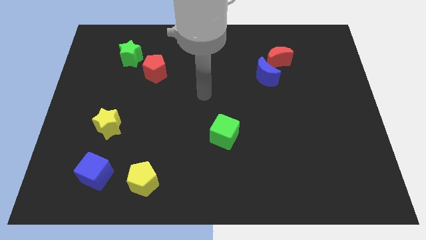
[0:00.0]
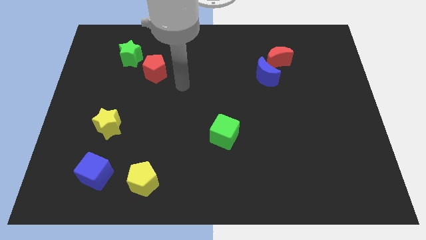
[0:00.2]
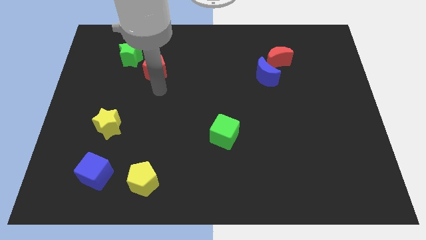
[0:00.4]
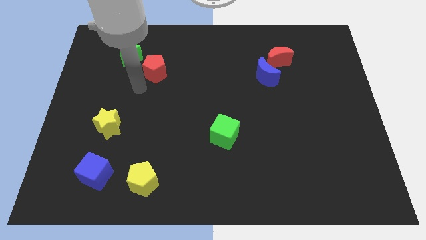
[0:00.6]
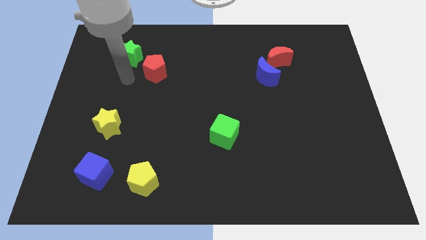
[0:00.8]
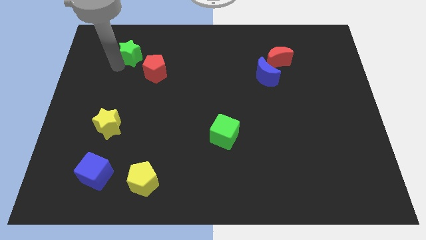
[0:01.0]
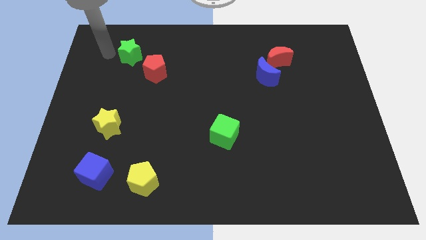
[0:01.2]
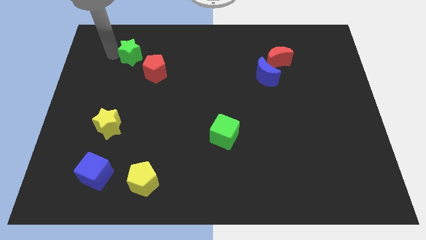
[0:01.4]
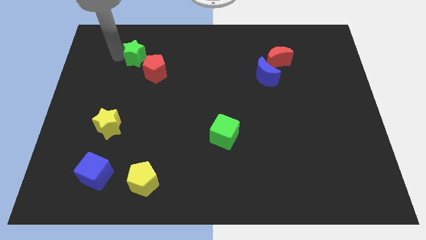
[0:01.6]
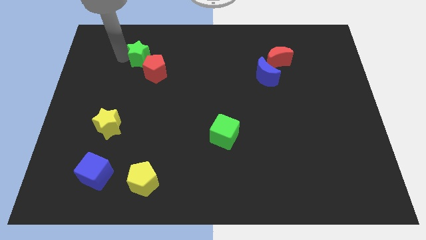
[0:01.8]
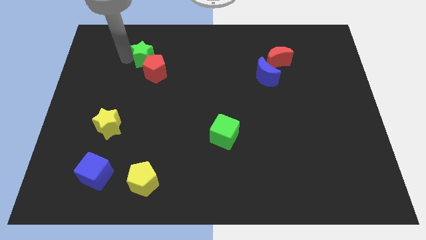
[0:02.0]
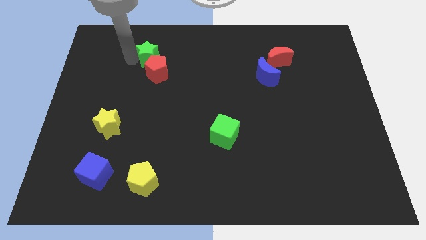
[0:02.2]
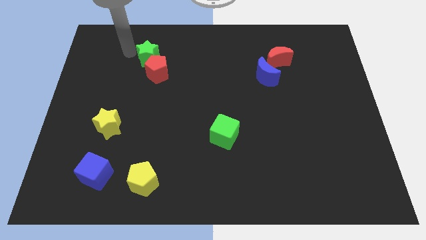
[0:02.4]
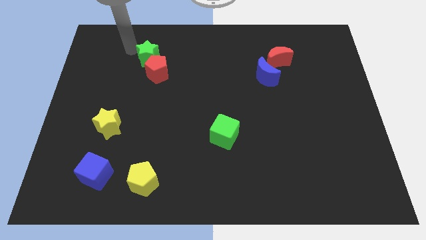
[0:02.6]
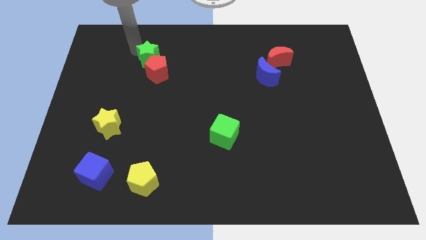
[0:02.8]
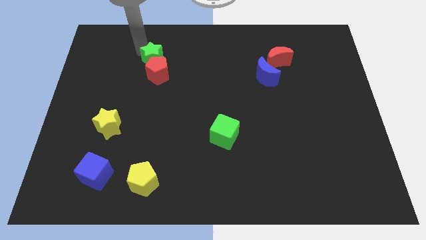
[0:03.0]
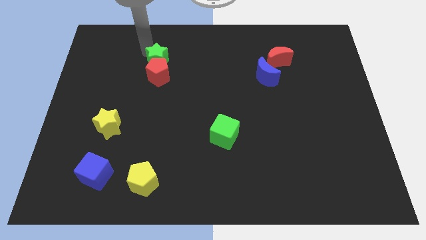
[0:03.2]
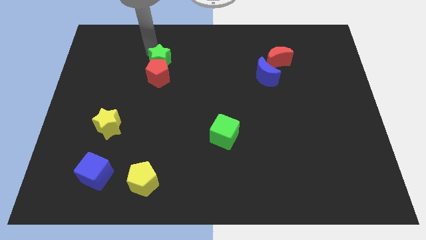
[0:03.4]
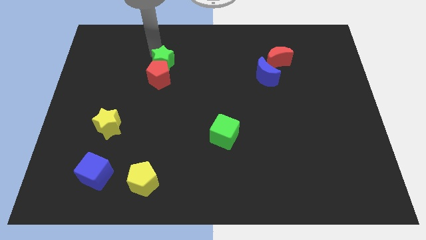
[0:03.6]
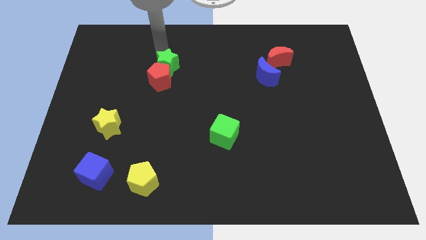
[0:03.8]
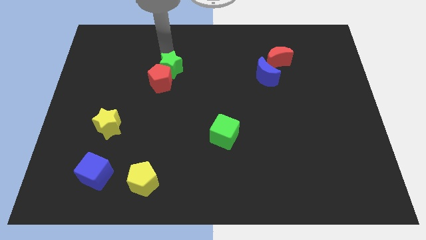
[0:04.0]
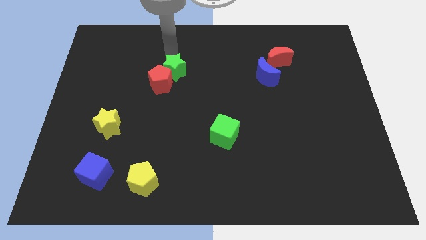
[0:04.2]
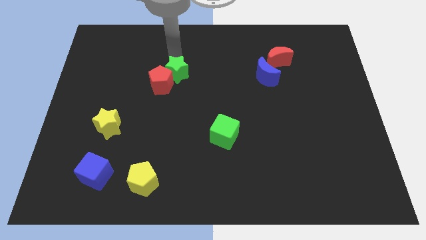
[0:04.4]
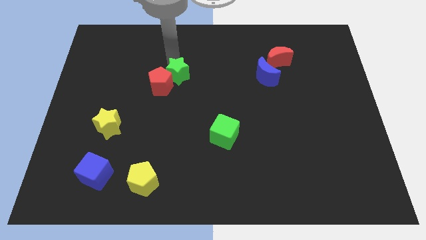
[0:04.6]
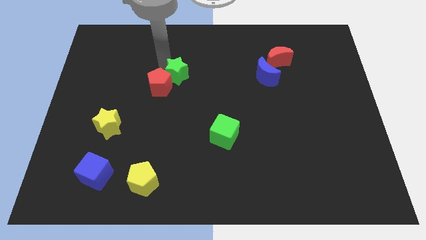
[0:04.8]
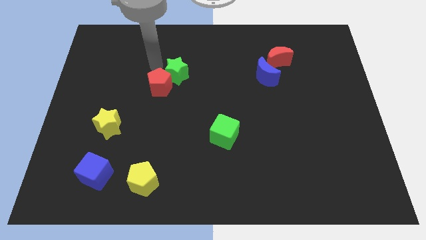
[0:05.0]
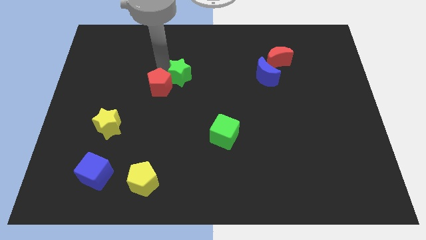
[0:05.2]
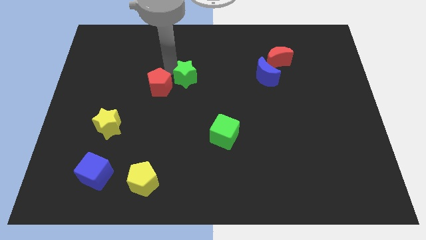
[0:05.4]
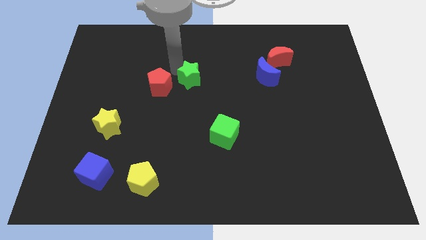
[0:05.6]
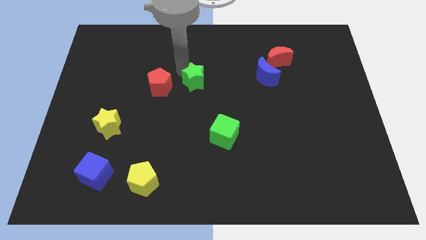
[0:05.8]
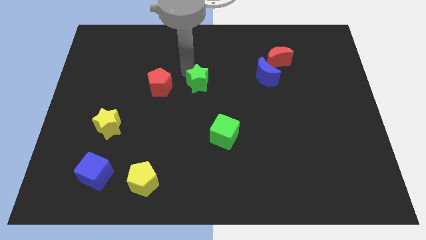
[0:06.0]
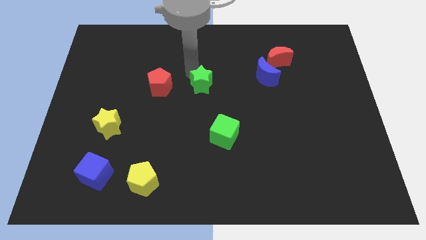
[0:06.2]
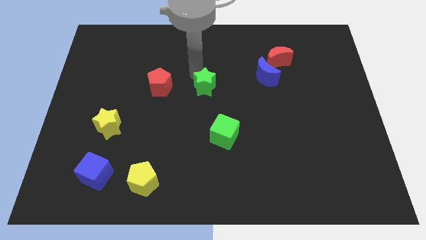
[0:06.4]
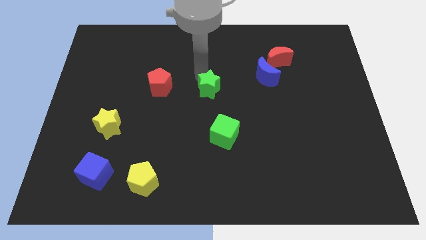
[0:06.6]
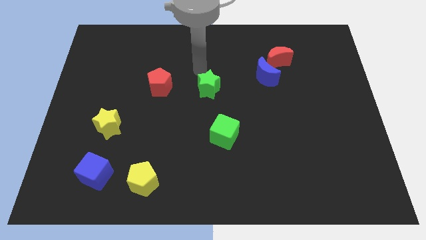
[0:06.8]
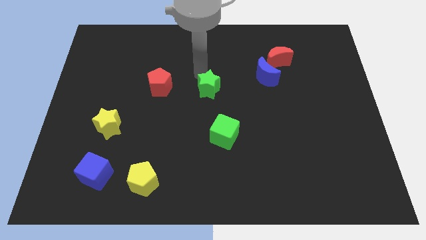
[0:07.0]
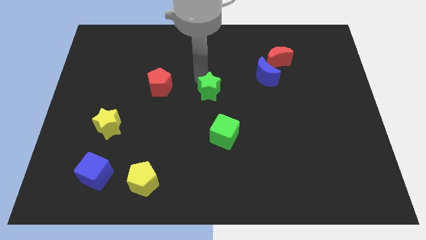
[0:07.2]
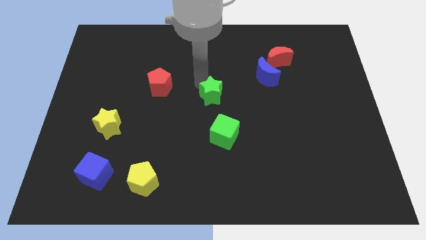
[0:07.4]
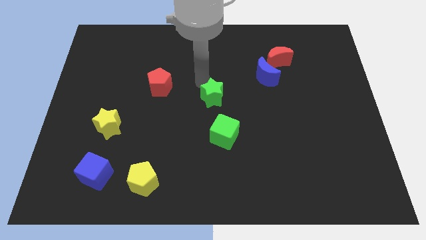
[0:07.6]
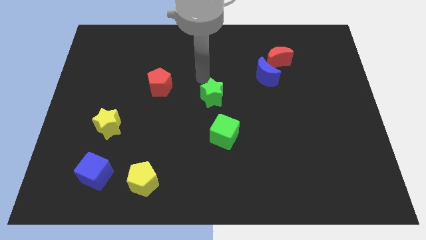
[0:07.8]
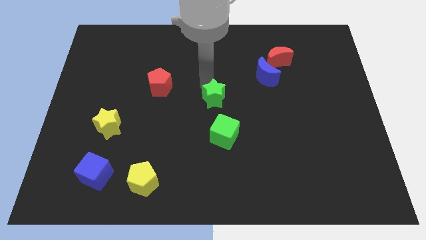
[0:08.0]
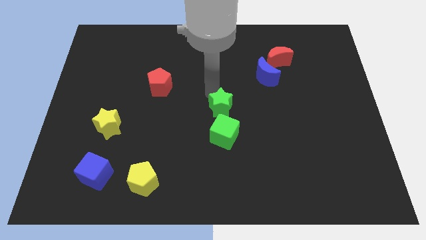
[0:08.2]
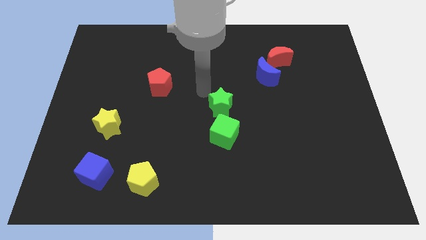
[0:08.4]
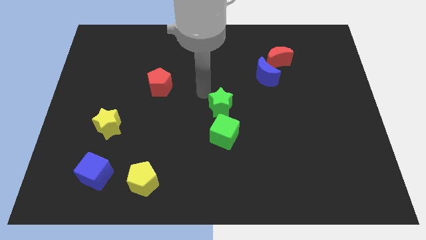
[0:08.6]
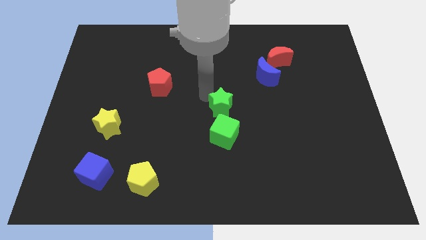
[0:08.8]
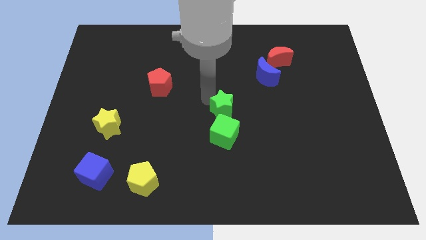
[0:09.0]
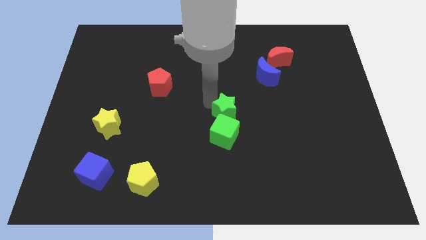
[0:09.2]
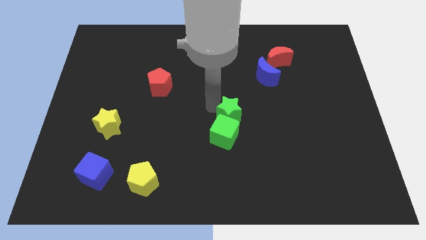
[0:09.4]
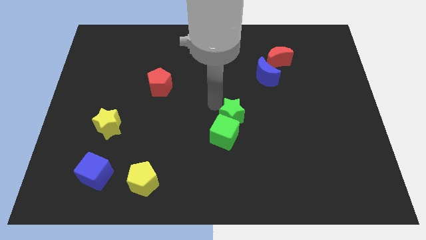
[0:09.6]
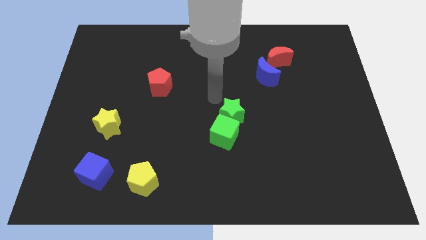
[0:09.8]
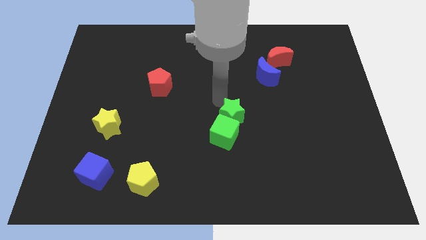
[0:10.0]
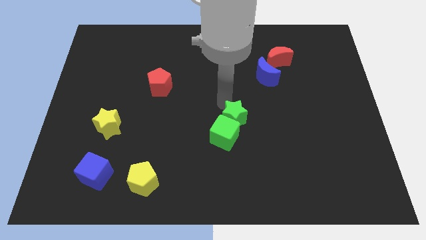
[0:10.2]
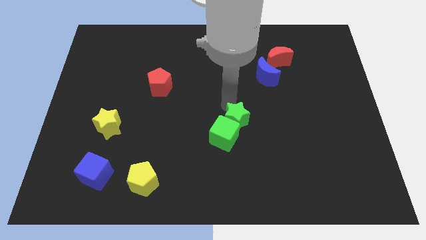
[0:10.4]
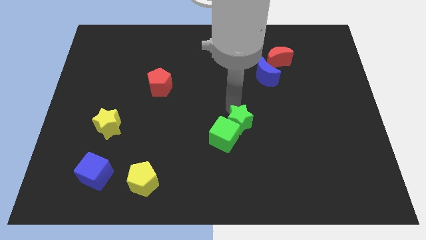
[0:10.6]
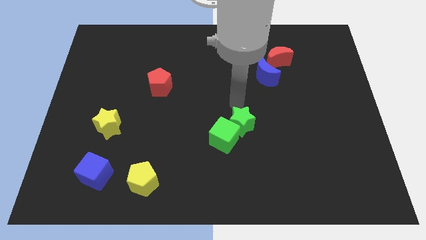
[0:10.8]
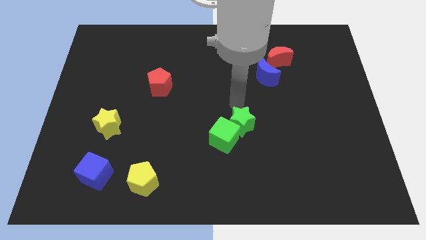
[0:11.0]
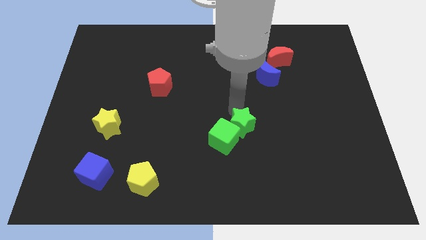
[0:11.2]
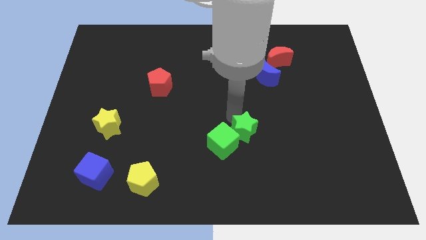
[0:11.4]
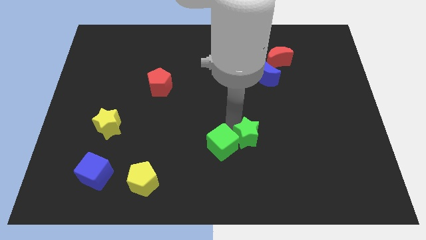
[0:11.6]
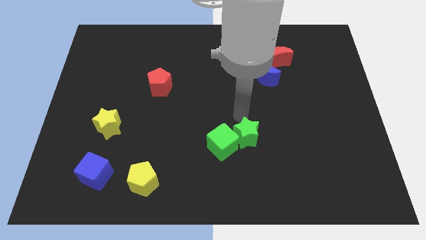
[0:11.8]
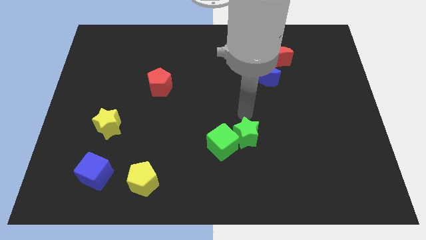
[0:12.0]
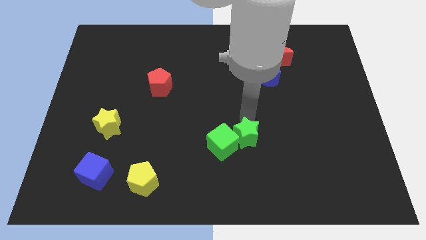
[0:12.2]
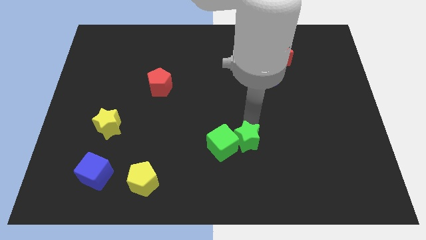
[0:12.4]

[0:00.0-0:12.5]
move the green star to the bottom right of the green cube

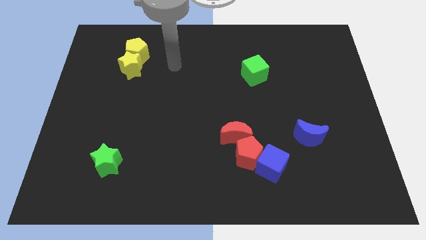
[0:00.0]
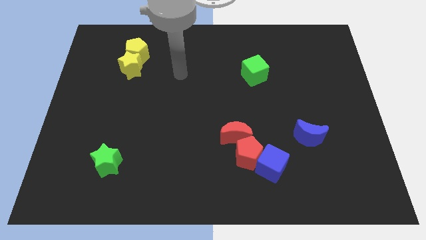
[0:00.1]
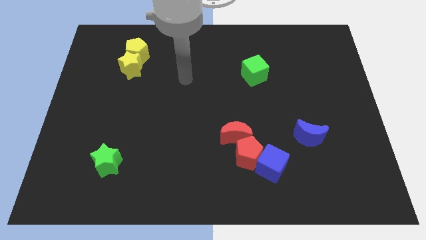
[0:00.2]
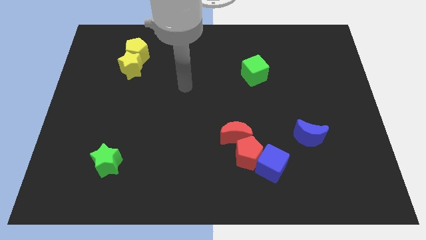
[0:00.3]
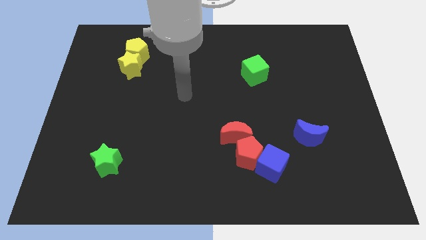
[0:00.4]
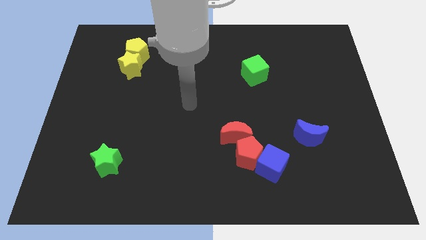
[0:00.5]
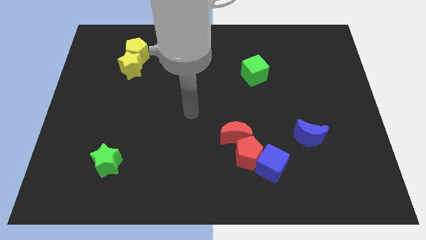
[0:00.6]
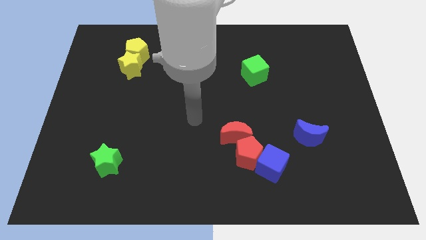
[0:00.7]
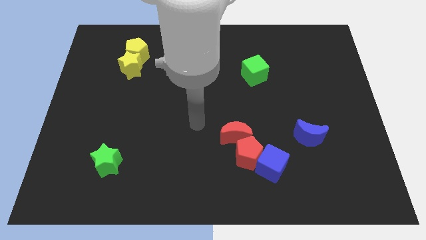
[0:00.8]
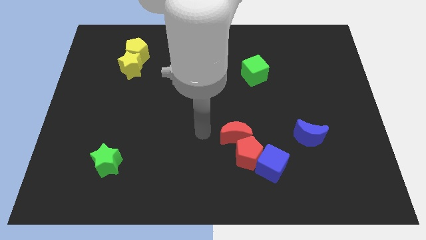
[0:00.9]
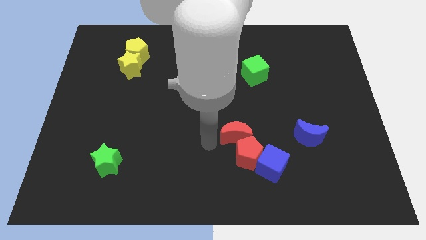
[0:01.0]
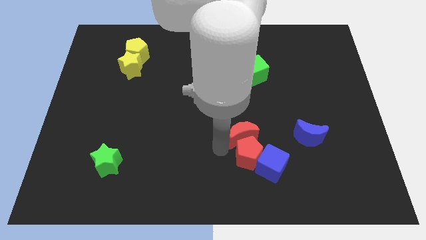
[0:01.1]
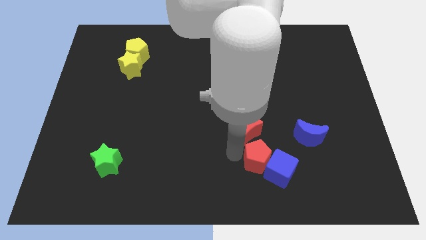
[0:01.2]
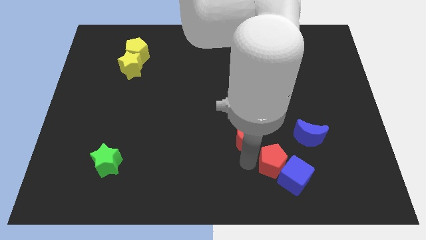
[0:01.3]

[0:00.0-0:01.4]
put the blue cube below the blue moon
